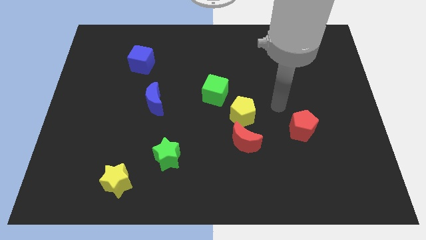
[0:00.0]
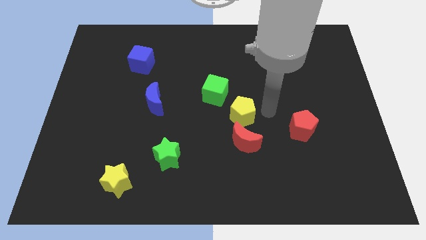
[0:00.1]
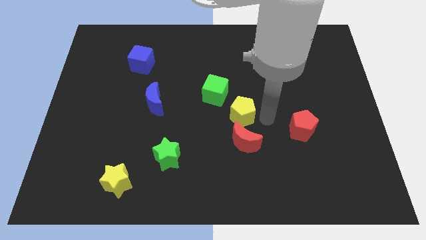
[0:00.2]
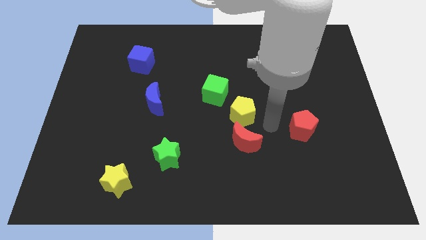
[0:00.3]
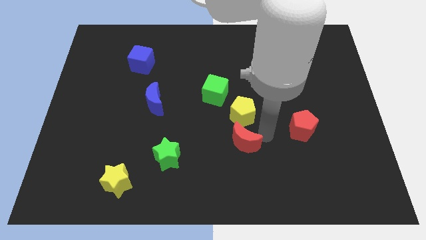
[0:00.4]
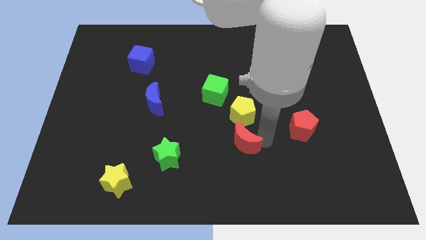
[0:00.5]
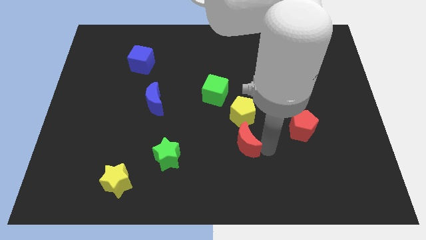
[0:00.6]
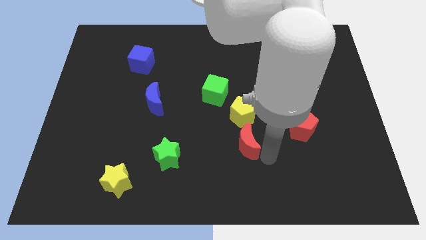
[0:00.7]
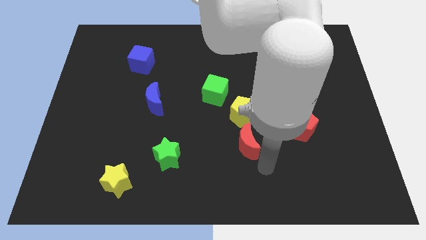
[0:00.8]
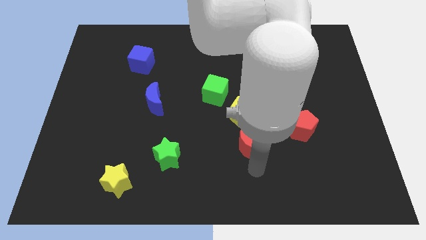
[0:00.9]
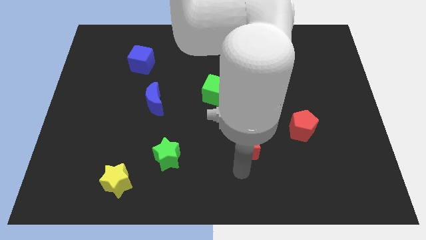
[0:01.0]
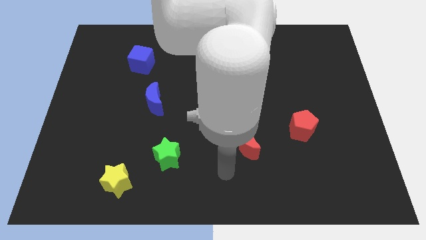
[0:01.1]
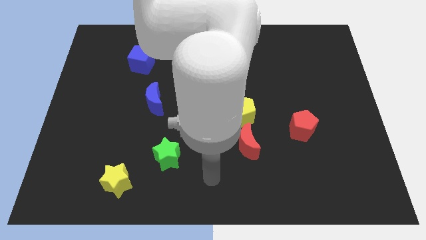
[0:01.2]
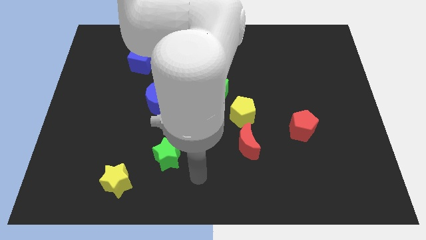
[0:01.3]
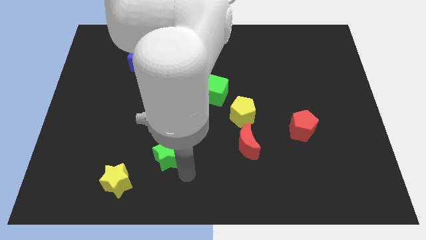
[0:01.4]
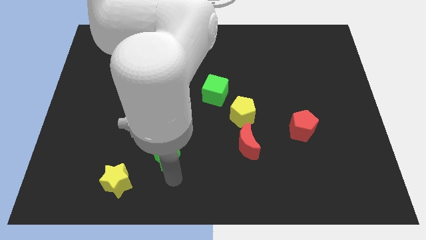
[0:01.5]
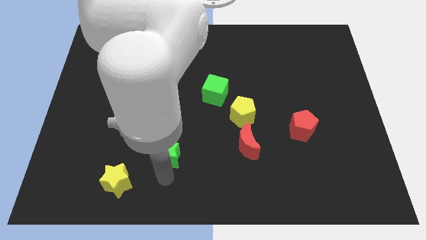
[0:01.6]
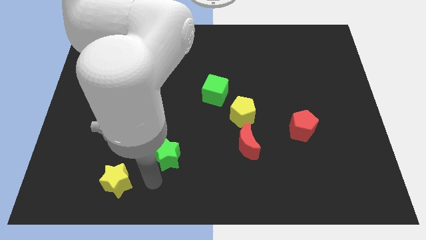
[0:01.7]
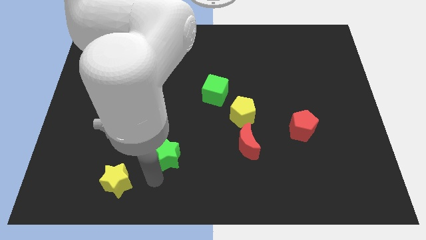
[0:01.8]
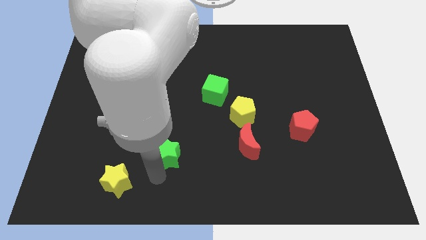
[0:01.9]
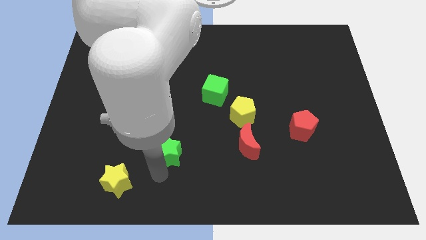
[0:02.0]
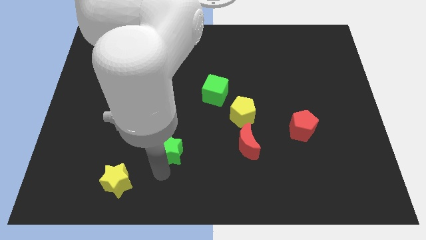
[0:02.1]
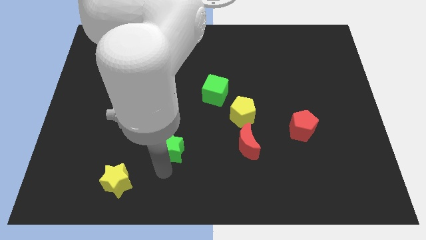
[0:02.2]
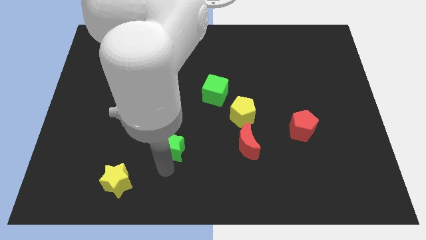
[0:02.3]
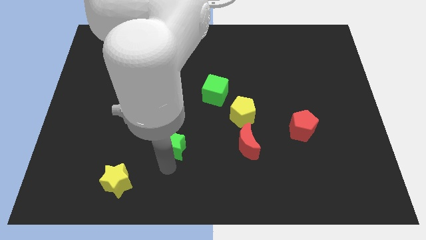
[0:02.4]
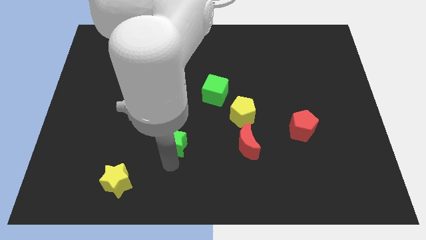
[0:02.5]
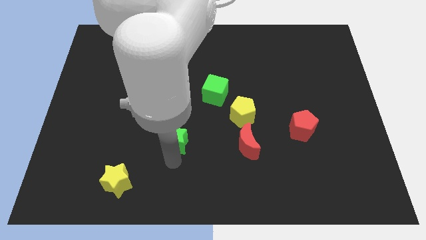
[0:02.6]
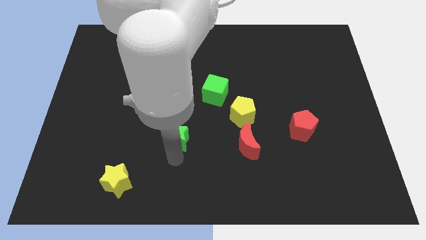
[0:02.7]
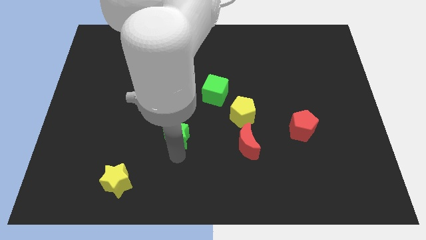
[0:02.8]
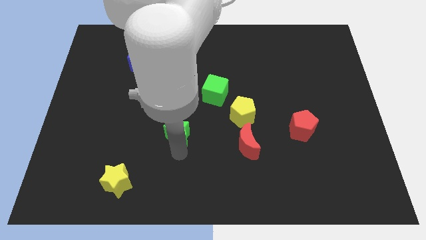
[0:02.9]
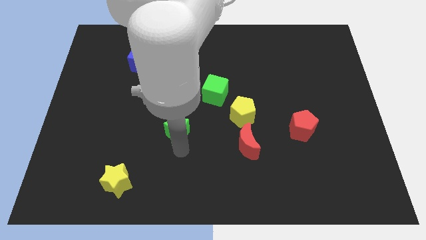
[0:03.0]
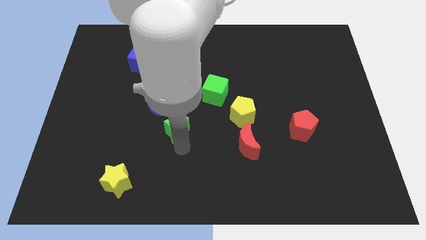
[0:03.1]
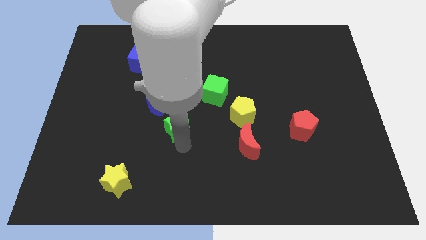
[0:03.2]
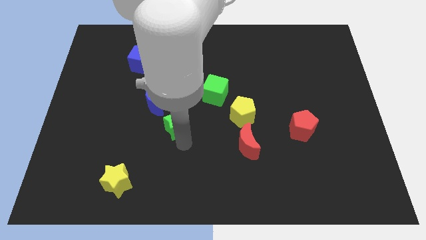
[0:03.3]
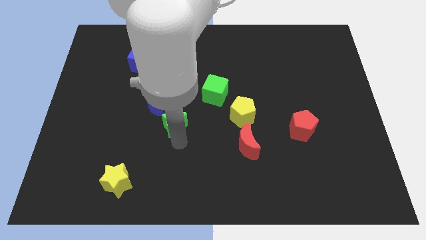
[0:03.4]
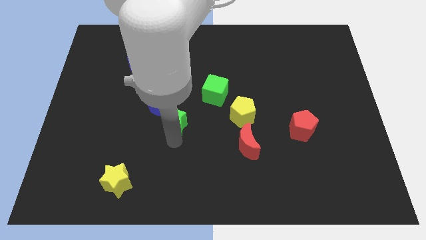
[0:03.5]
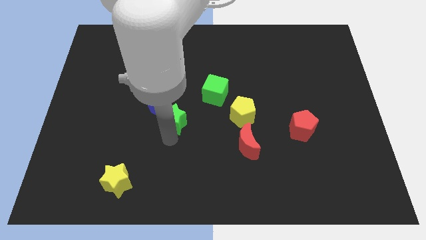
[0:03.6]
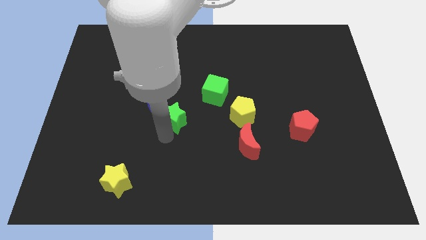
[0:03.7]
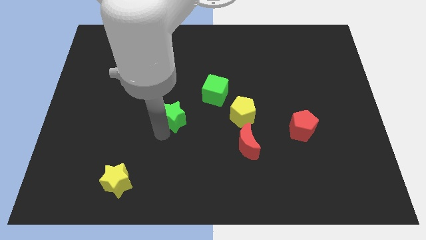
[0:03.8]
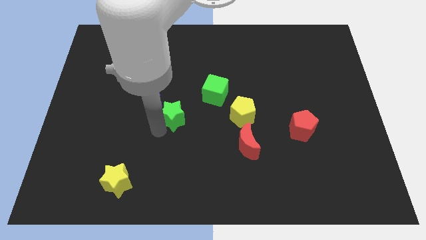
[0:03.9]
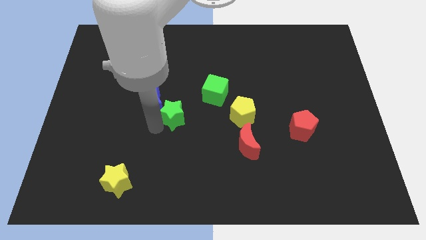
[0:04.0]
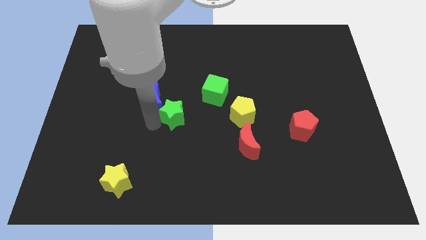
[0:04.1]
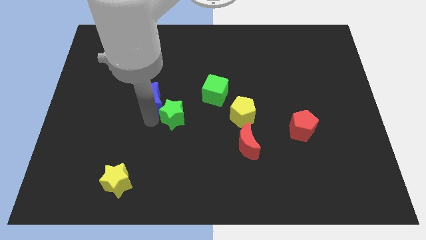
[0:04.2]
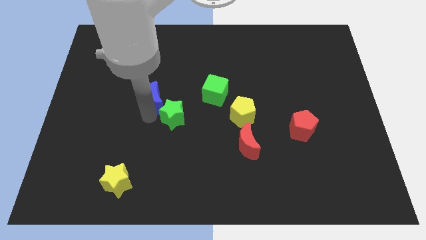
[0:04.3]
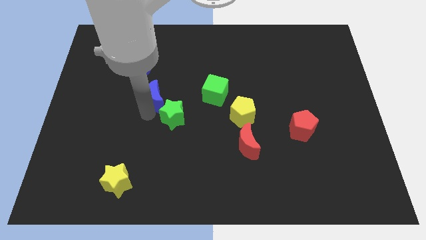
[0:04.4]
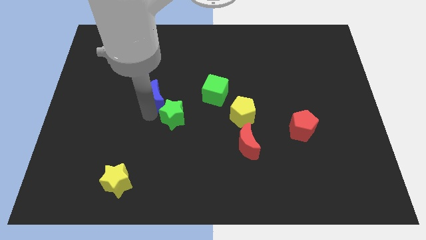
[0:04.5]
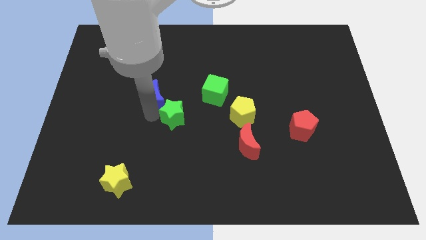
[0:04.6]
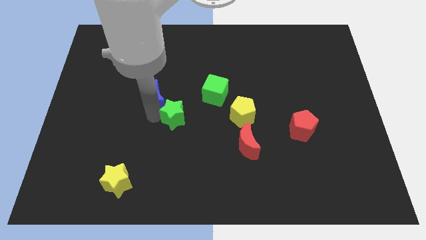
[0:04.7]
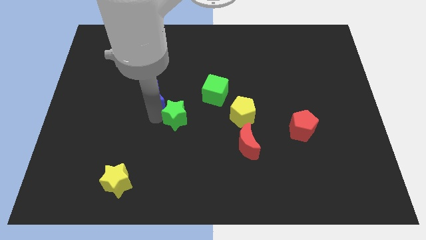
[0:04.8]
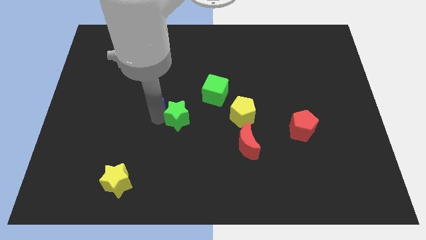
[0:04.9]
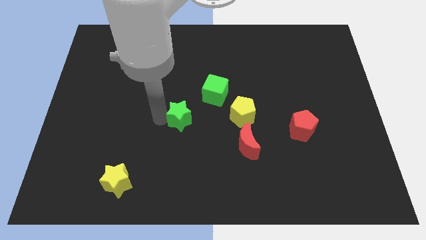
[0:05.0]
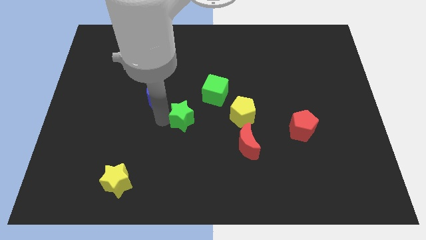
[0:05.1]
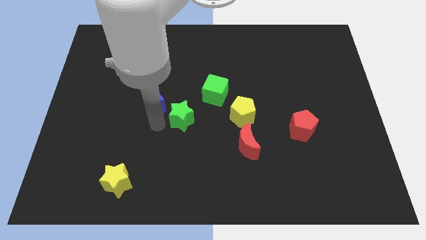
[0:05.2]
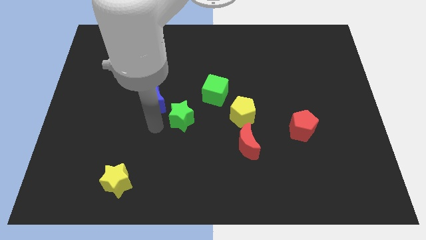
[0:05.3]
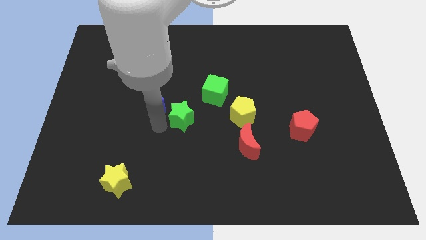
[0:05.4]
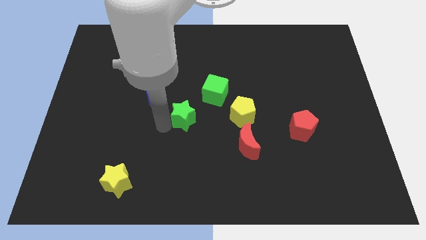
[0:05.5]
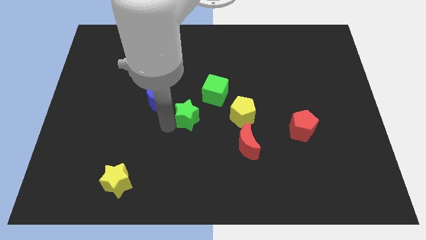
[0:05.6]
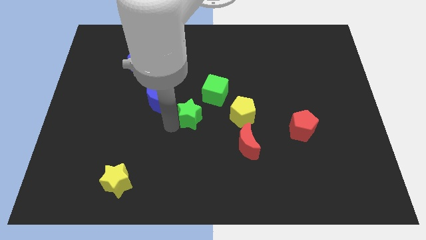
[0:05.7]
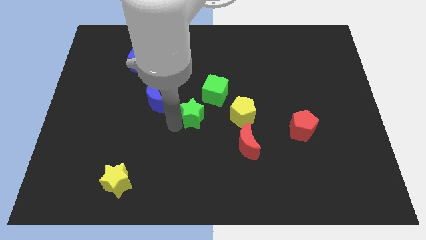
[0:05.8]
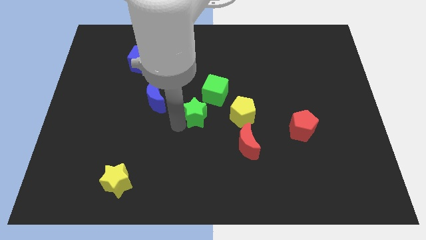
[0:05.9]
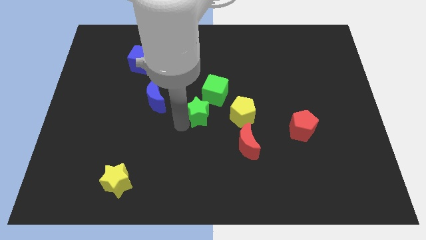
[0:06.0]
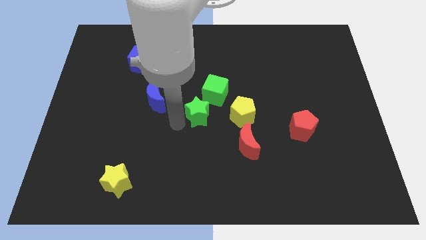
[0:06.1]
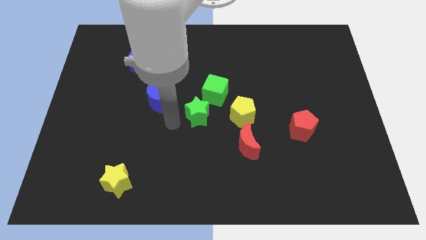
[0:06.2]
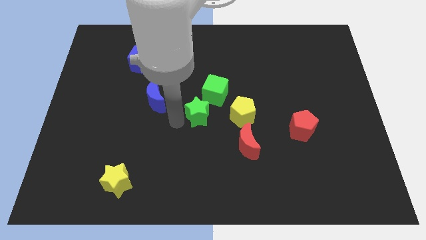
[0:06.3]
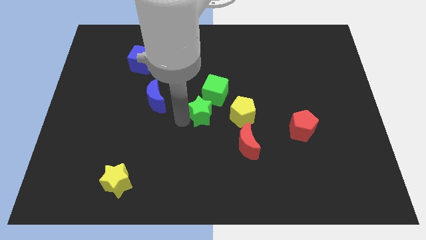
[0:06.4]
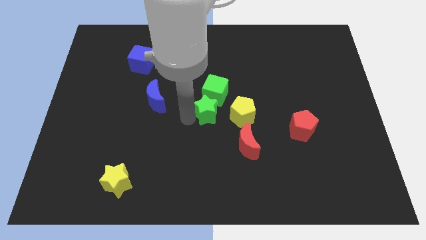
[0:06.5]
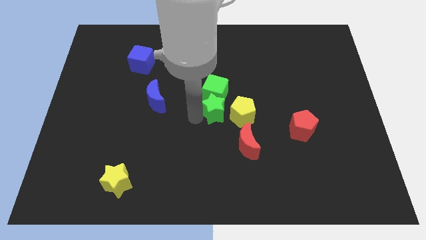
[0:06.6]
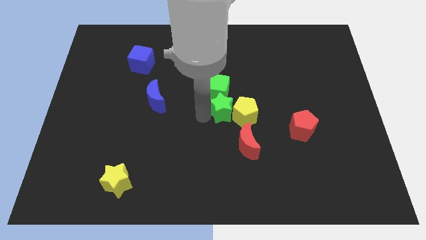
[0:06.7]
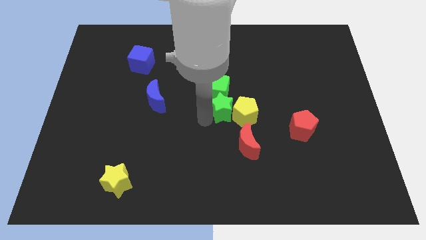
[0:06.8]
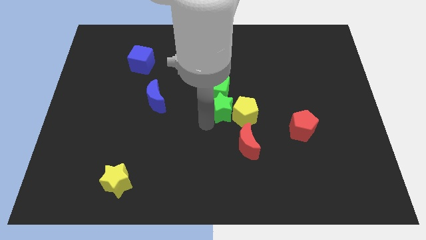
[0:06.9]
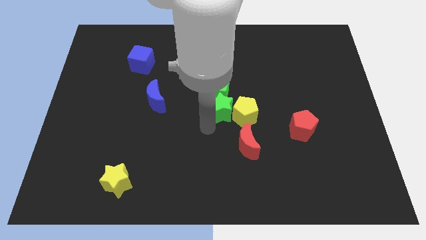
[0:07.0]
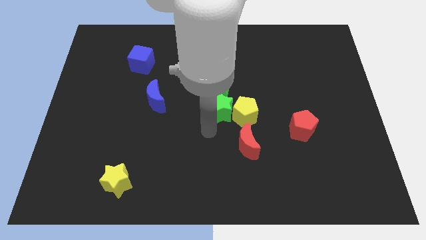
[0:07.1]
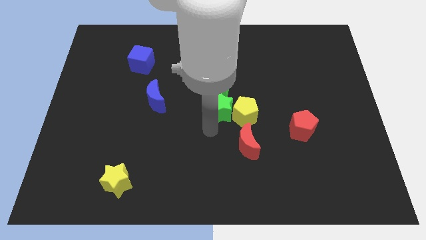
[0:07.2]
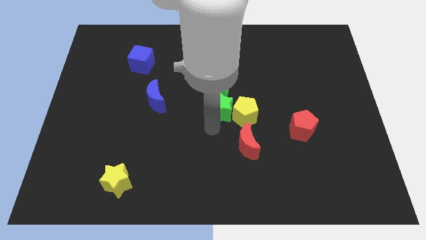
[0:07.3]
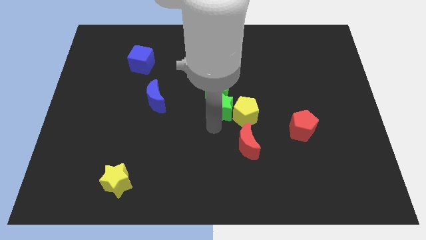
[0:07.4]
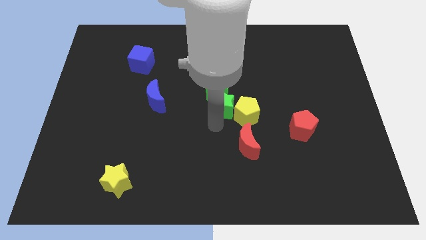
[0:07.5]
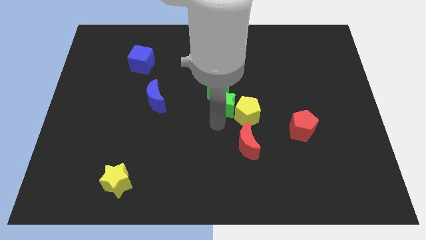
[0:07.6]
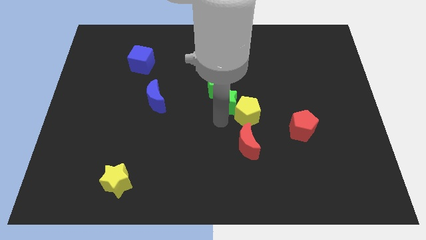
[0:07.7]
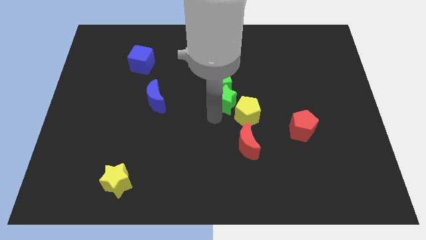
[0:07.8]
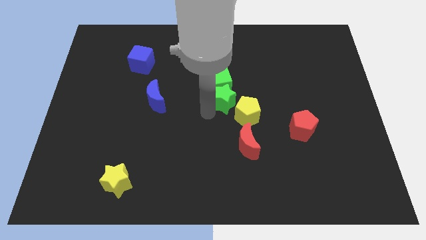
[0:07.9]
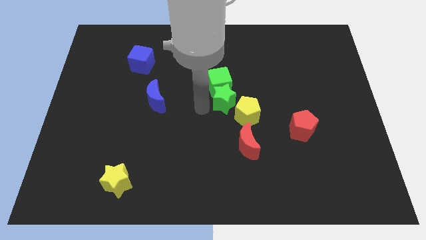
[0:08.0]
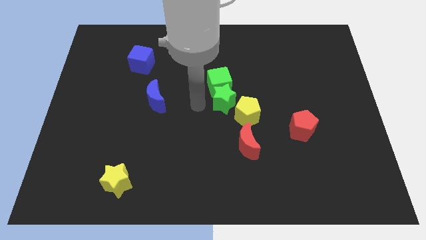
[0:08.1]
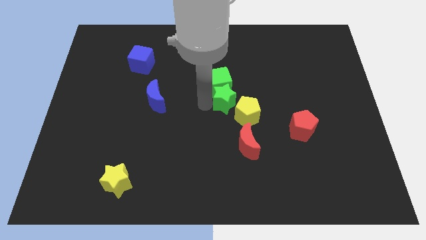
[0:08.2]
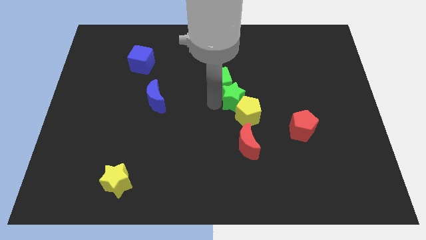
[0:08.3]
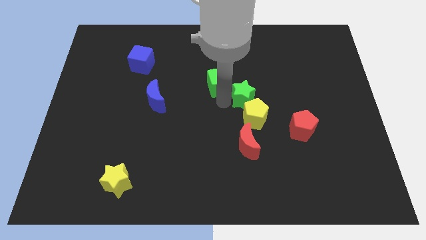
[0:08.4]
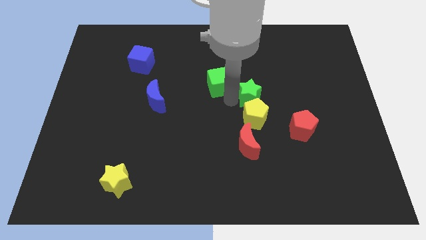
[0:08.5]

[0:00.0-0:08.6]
move the green star to the top right of the yellow pentagon
